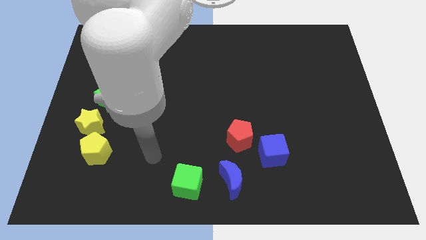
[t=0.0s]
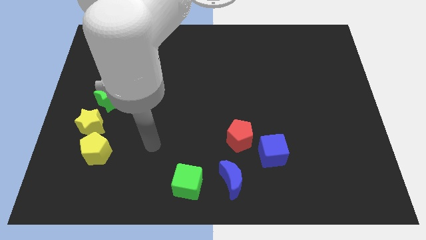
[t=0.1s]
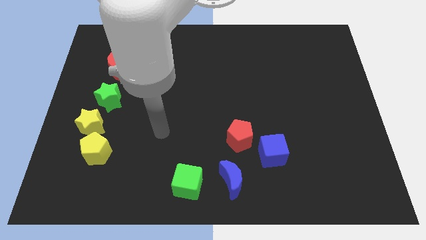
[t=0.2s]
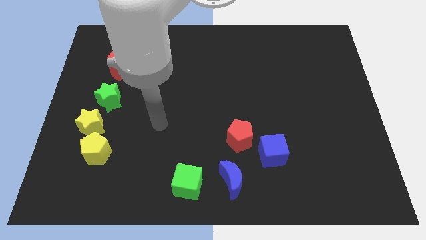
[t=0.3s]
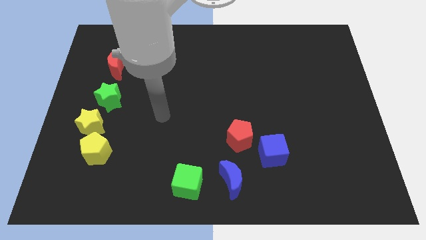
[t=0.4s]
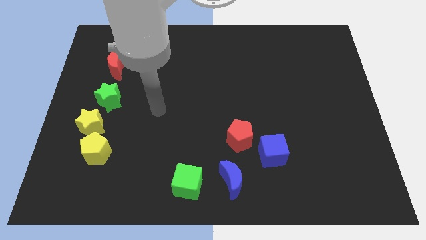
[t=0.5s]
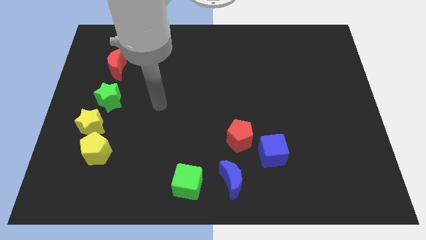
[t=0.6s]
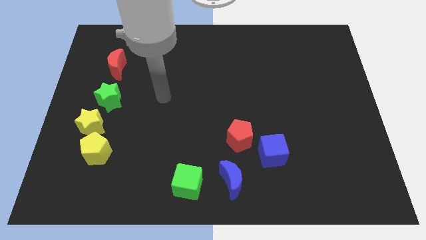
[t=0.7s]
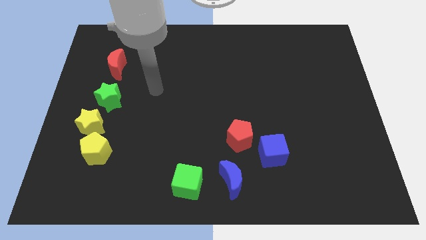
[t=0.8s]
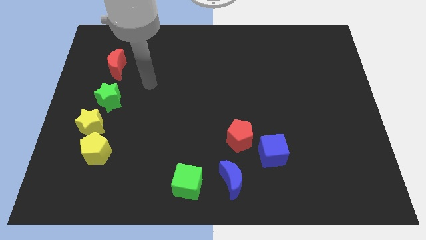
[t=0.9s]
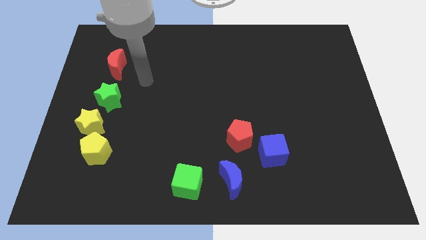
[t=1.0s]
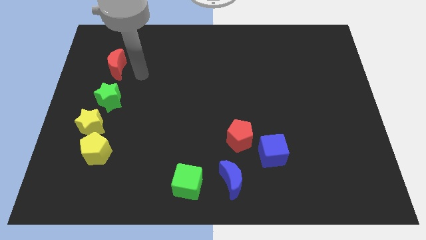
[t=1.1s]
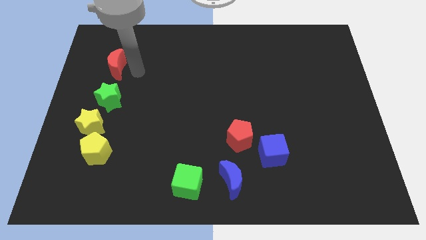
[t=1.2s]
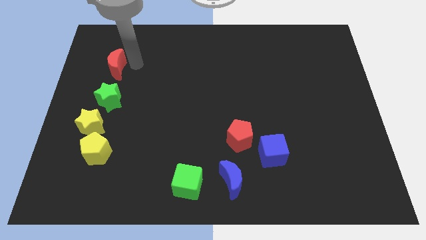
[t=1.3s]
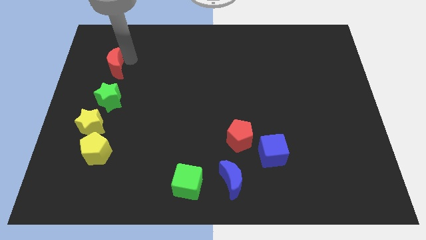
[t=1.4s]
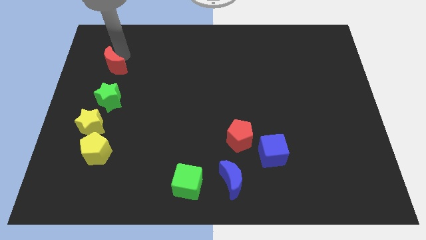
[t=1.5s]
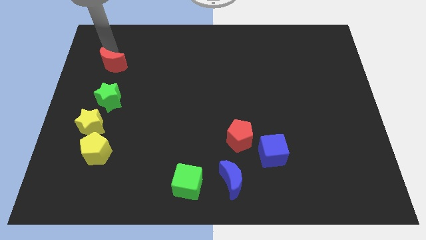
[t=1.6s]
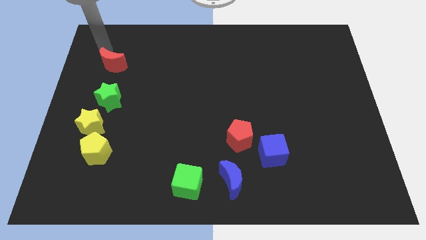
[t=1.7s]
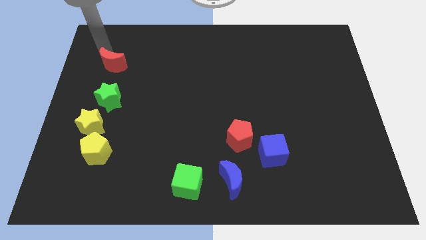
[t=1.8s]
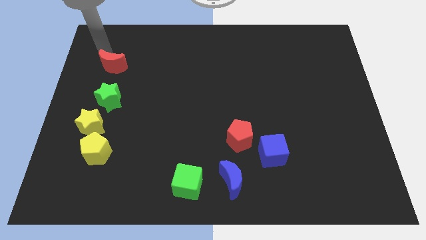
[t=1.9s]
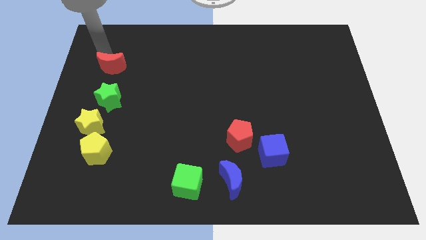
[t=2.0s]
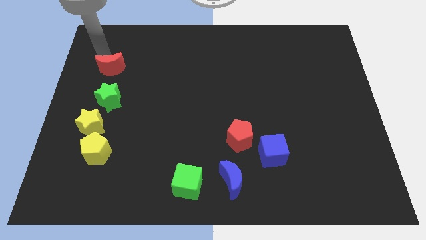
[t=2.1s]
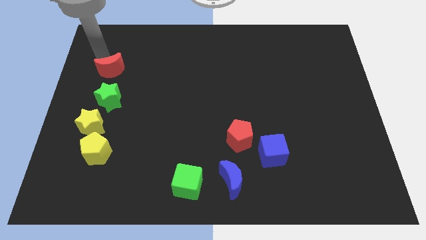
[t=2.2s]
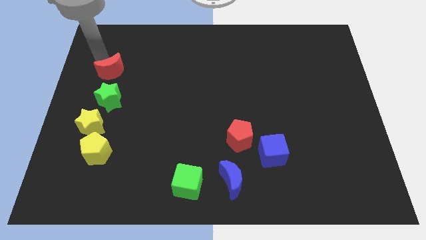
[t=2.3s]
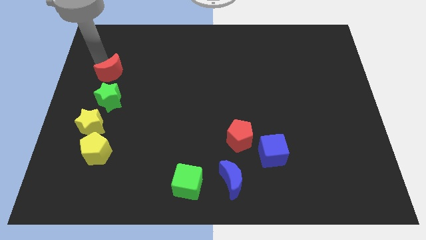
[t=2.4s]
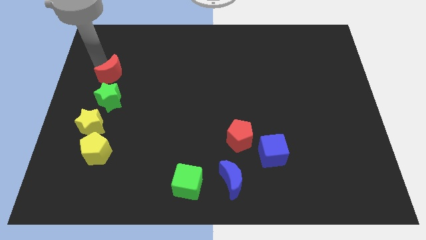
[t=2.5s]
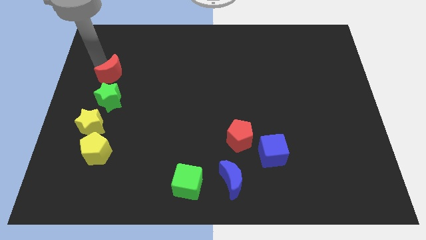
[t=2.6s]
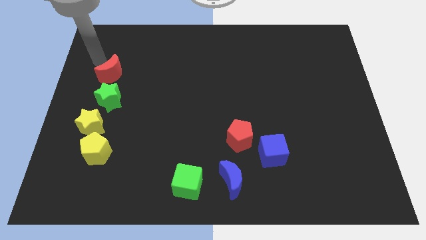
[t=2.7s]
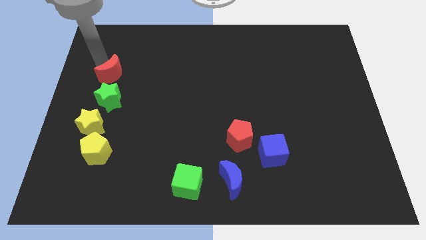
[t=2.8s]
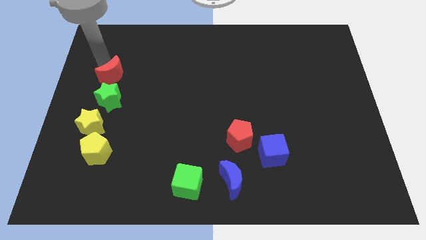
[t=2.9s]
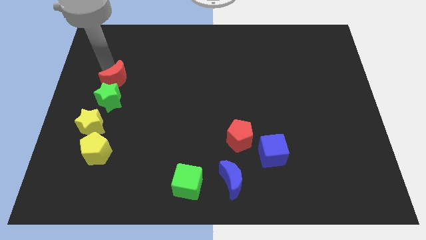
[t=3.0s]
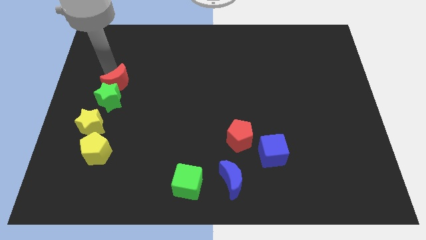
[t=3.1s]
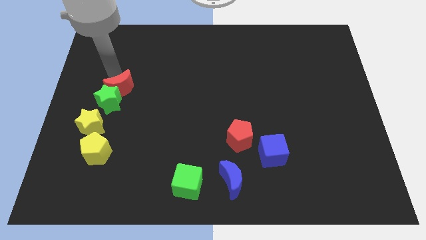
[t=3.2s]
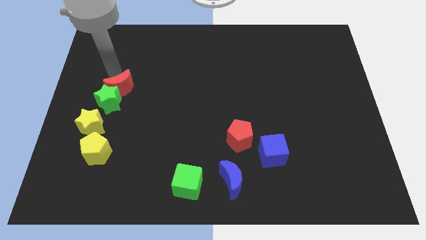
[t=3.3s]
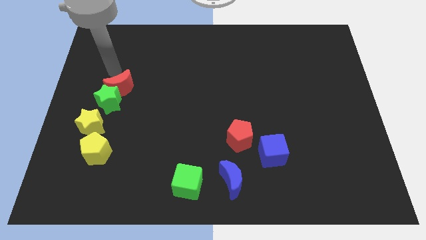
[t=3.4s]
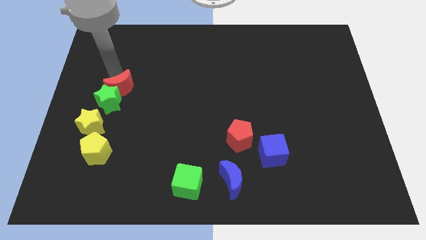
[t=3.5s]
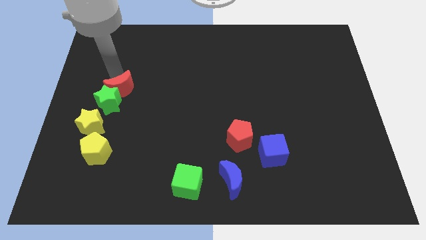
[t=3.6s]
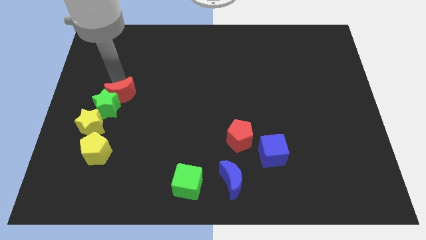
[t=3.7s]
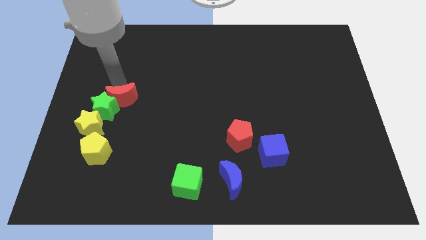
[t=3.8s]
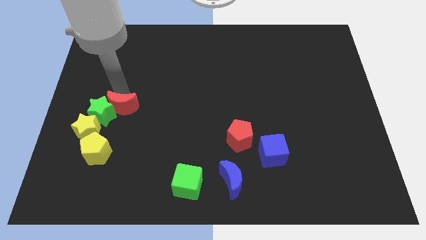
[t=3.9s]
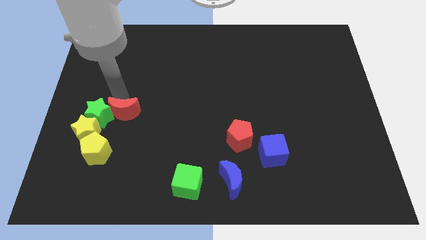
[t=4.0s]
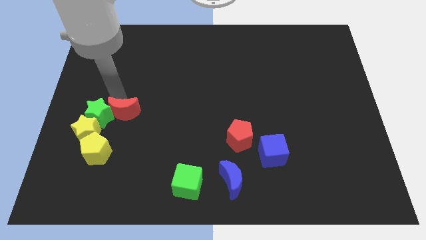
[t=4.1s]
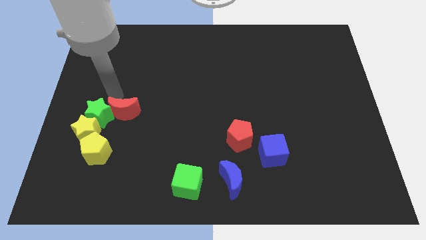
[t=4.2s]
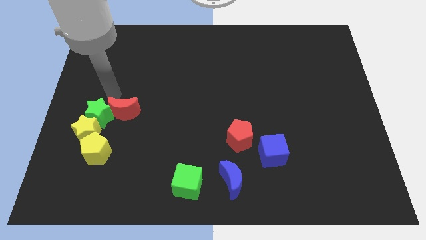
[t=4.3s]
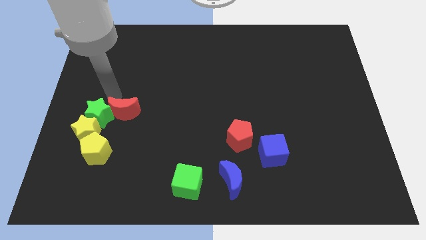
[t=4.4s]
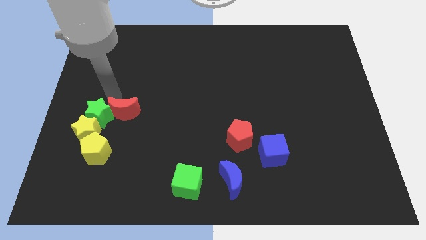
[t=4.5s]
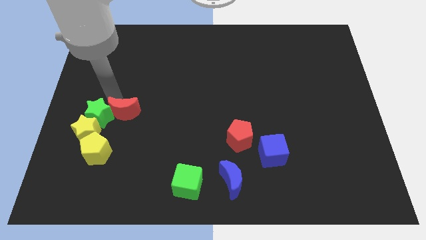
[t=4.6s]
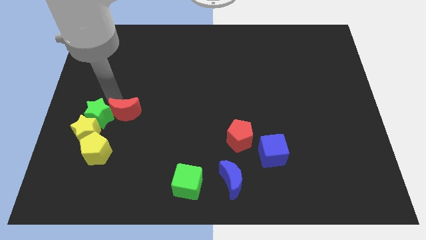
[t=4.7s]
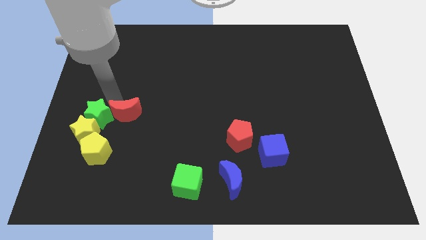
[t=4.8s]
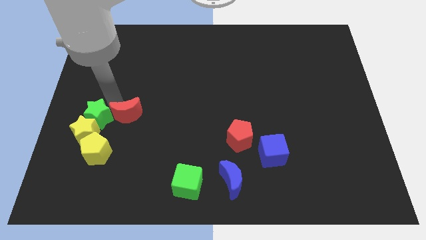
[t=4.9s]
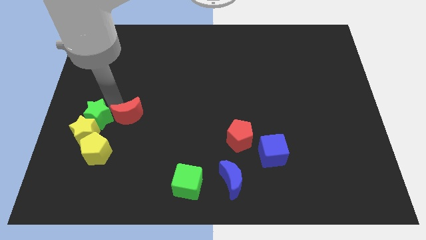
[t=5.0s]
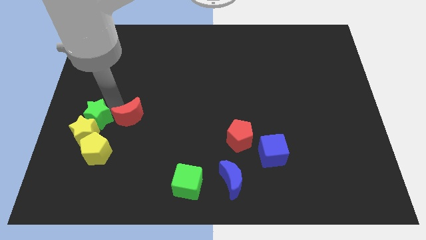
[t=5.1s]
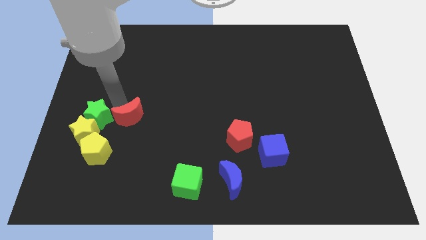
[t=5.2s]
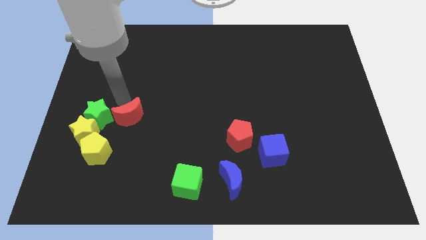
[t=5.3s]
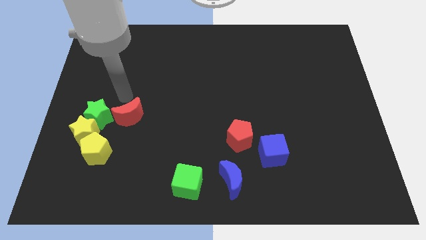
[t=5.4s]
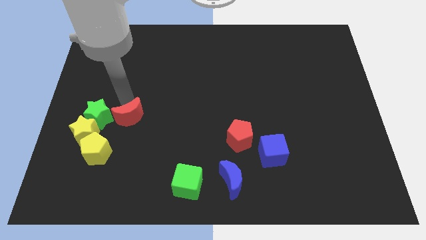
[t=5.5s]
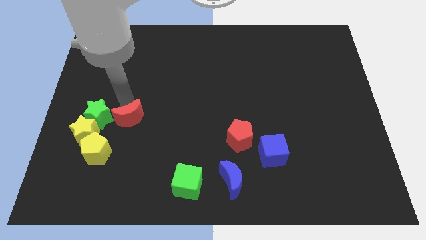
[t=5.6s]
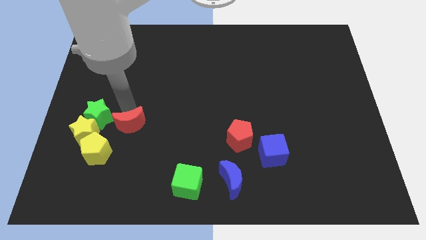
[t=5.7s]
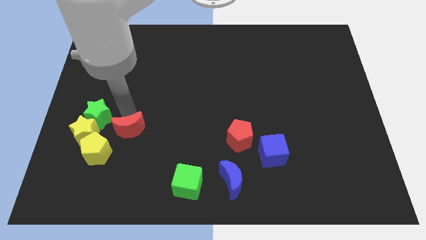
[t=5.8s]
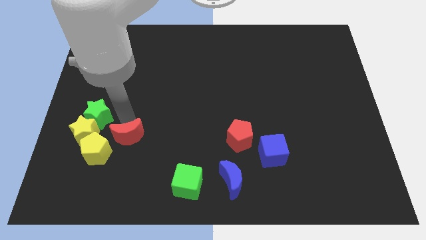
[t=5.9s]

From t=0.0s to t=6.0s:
slide the red moon just right of the yellow pentagon

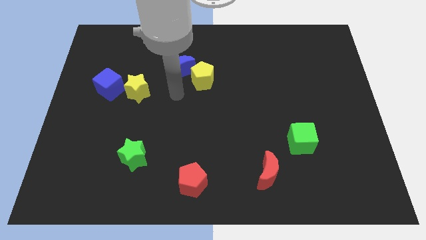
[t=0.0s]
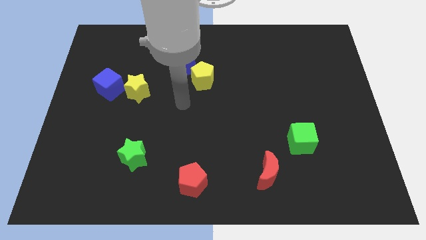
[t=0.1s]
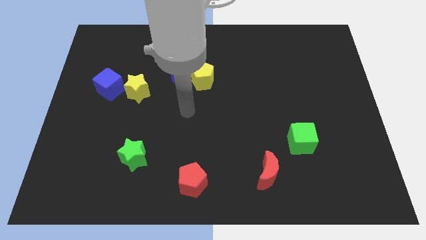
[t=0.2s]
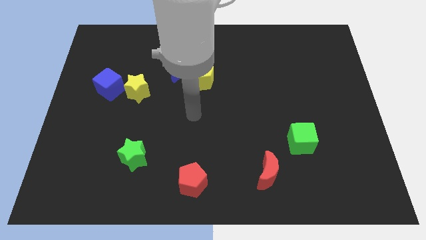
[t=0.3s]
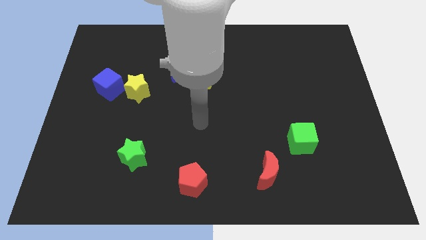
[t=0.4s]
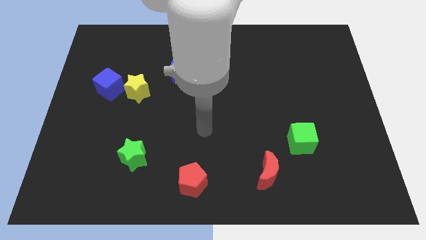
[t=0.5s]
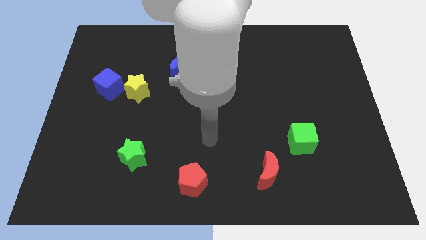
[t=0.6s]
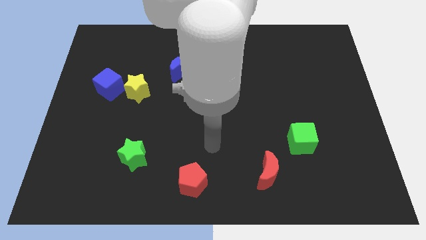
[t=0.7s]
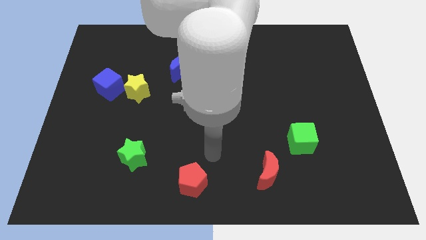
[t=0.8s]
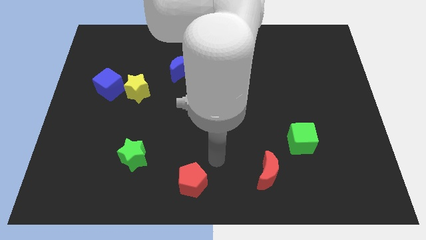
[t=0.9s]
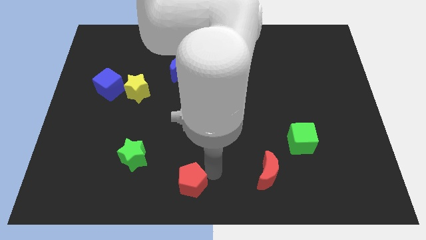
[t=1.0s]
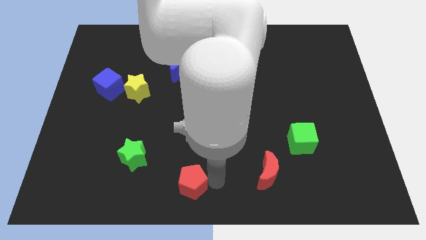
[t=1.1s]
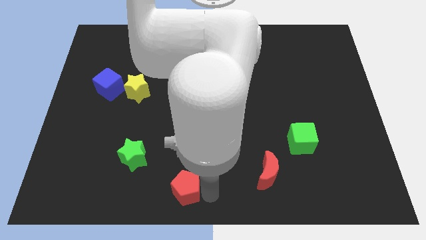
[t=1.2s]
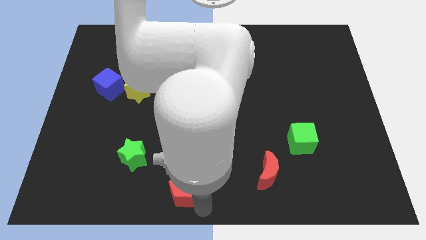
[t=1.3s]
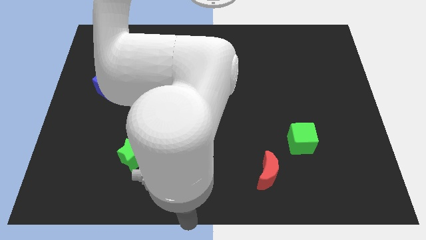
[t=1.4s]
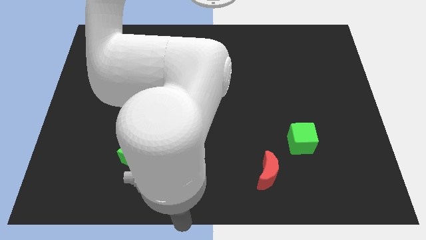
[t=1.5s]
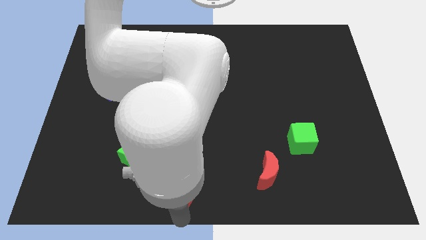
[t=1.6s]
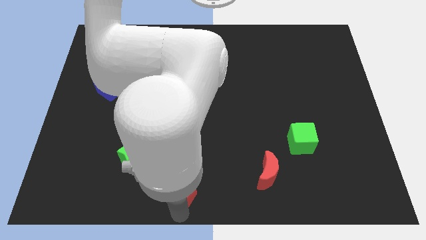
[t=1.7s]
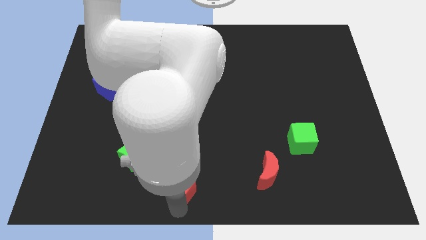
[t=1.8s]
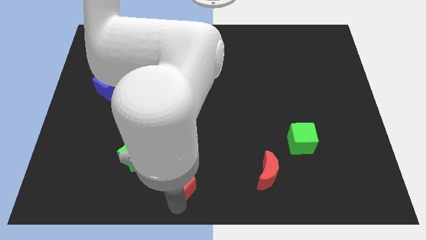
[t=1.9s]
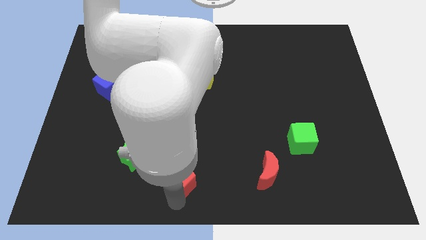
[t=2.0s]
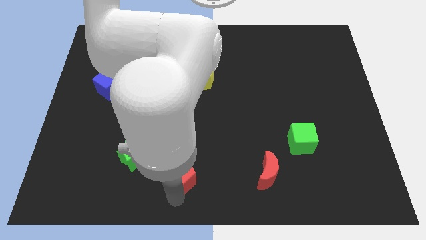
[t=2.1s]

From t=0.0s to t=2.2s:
push the red pentagon just right of the green star
